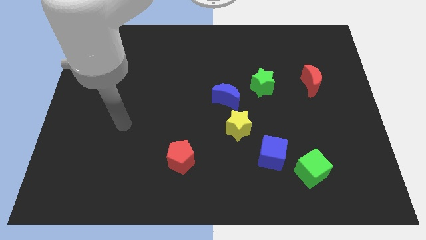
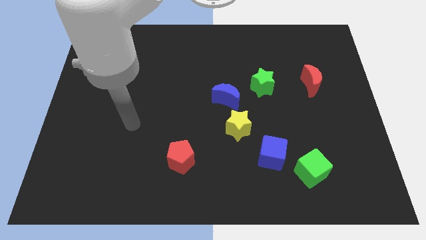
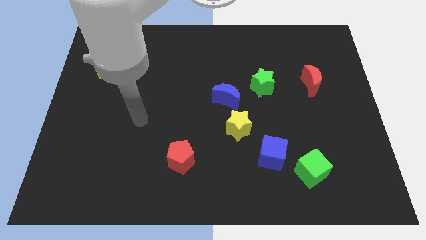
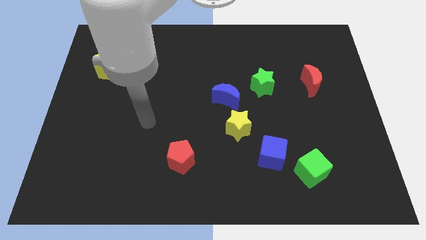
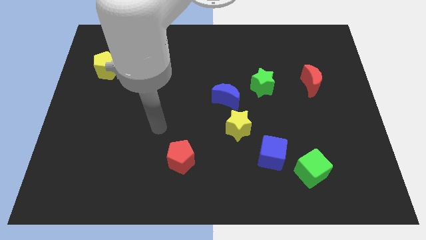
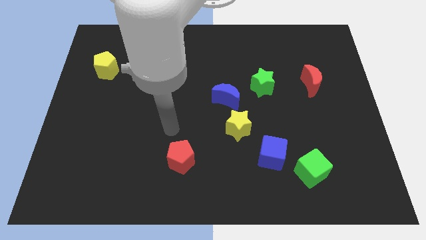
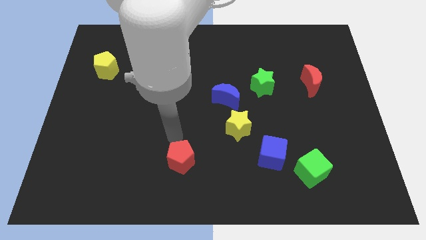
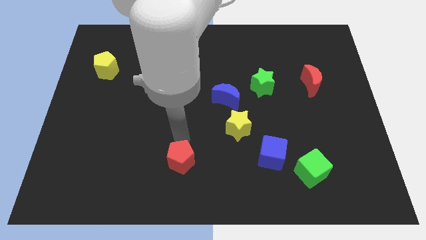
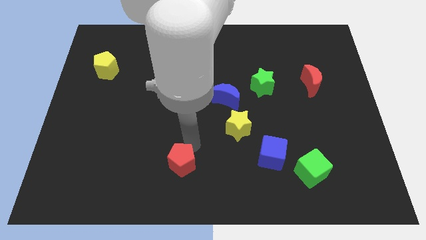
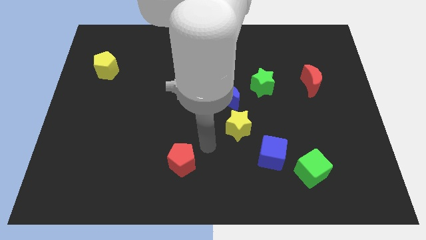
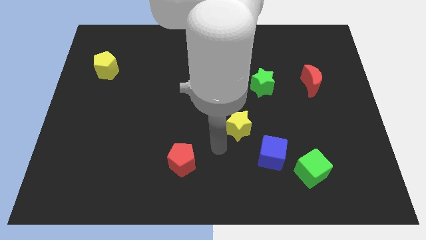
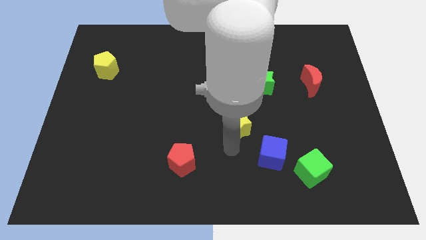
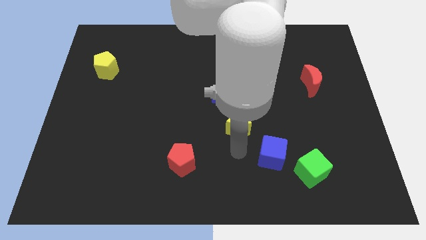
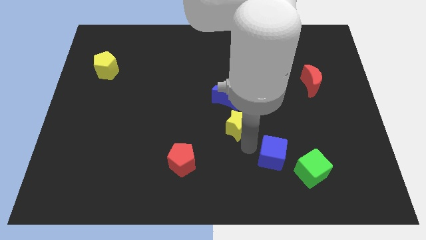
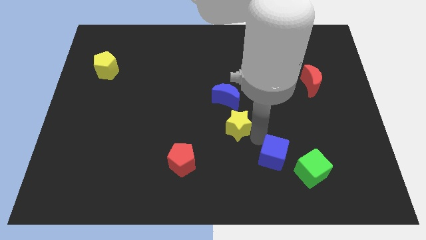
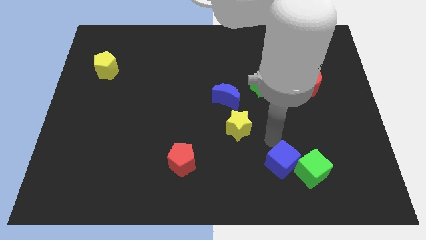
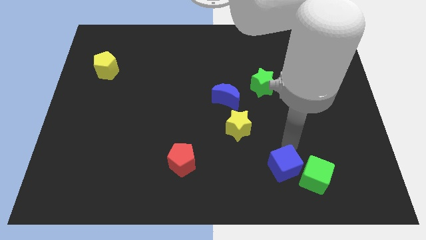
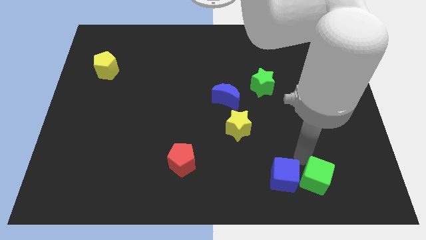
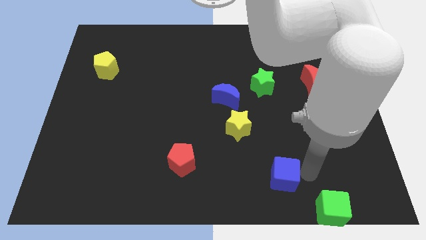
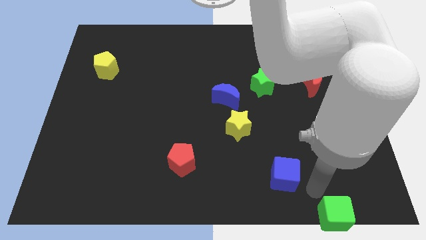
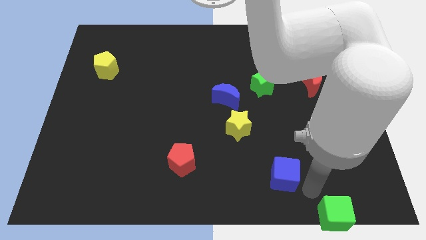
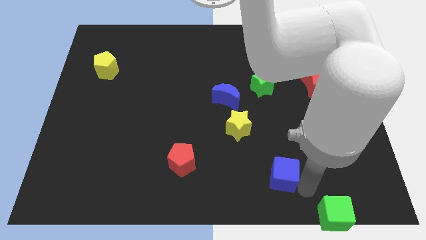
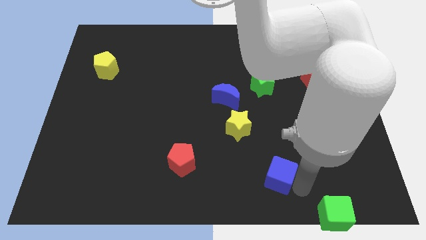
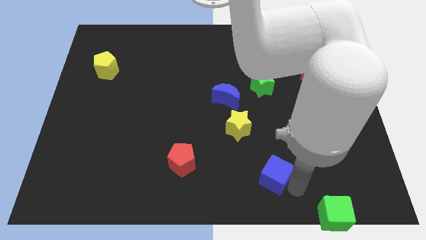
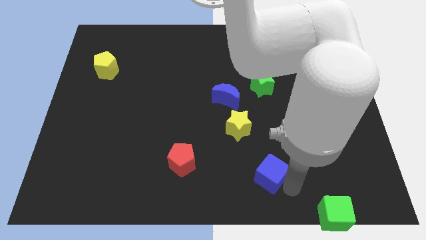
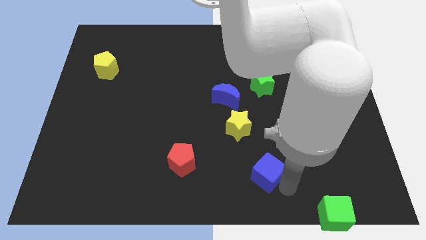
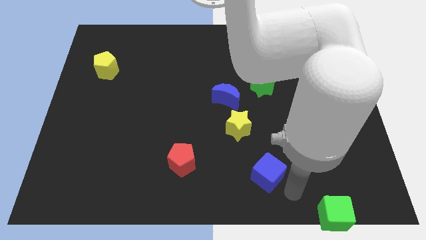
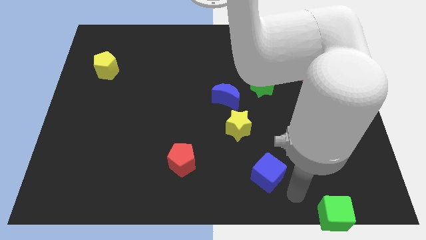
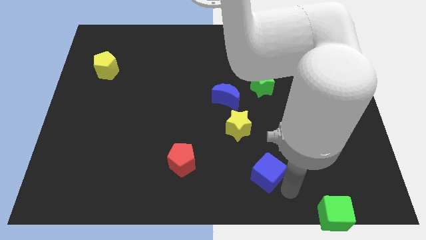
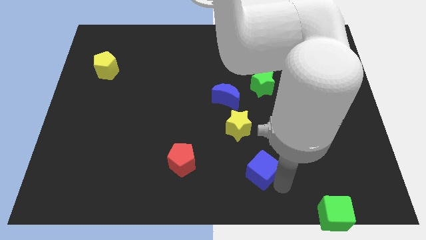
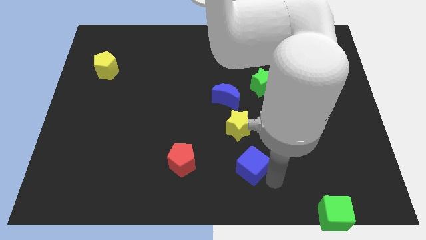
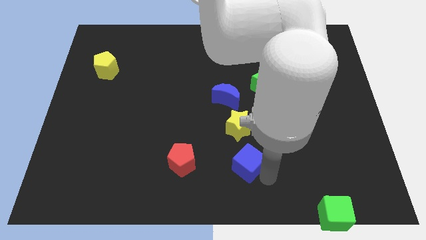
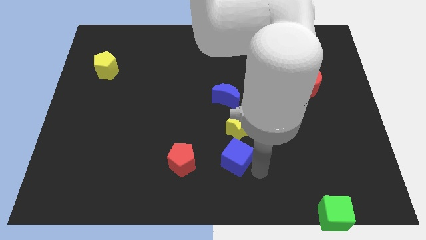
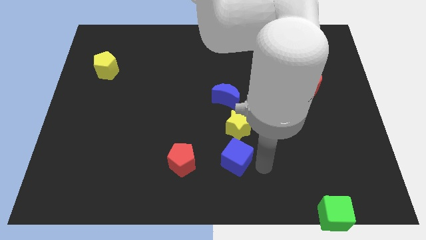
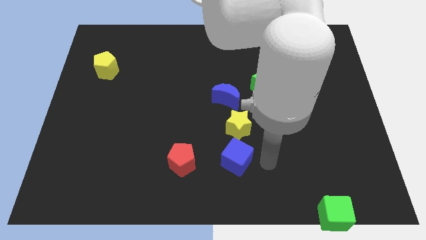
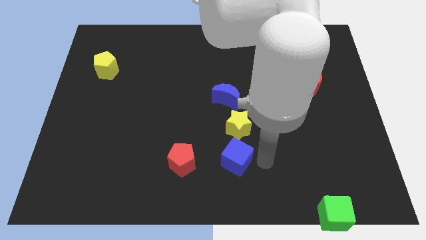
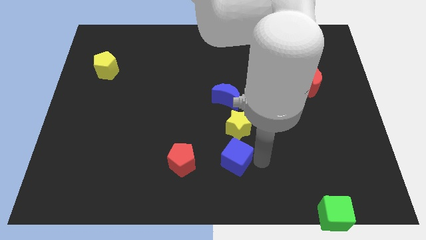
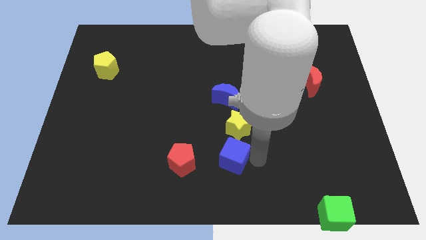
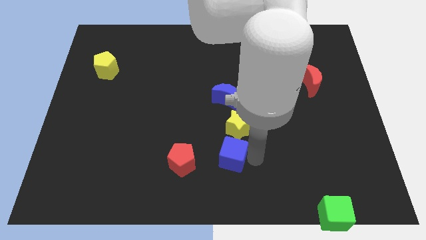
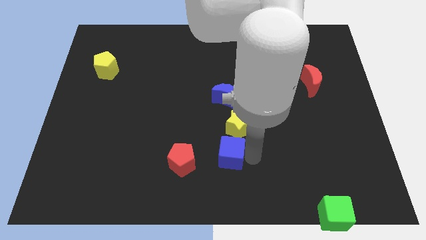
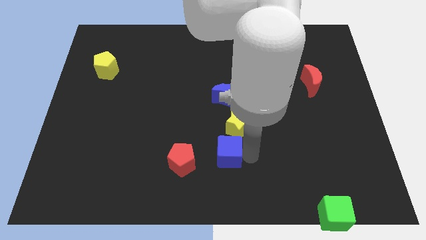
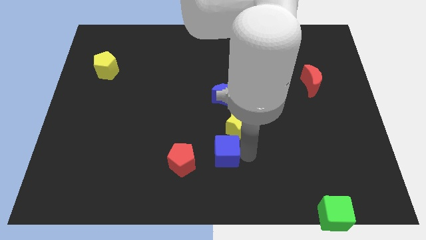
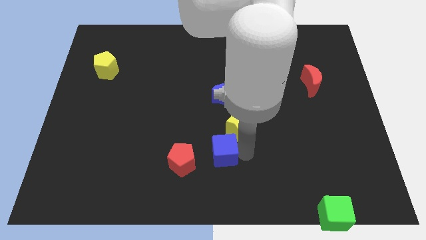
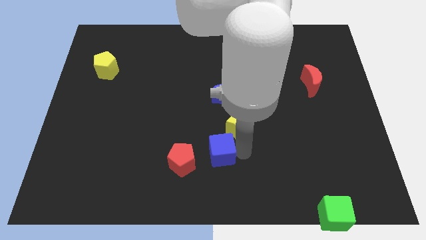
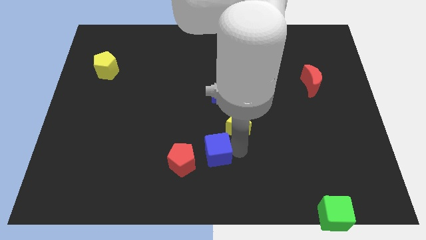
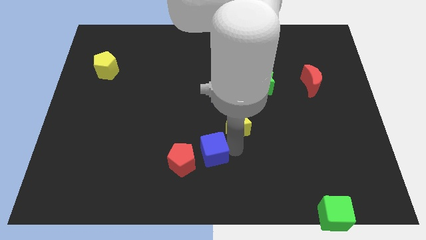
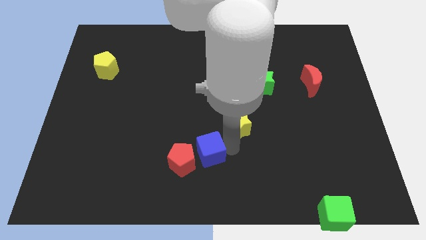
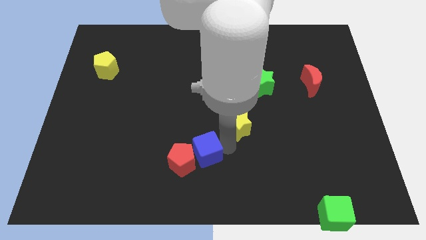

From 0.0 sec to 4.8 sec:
push the blue cube to the red pentagon

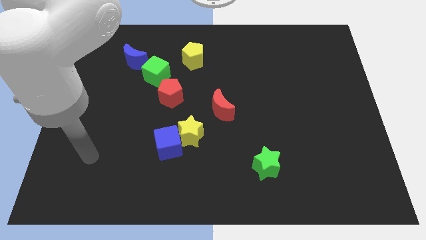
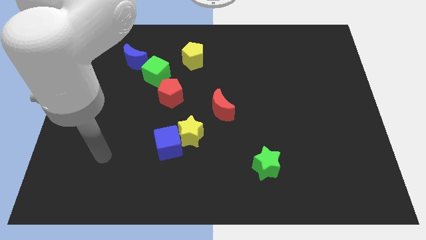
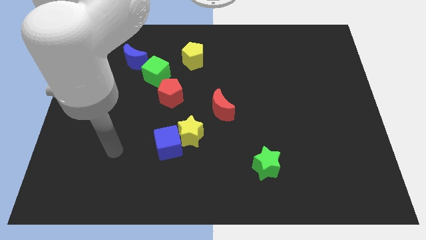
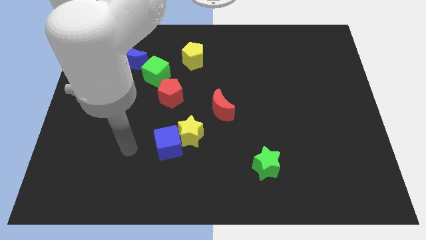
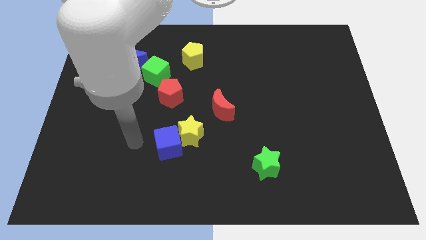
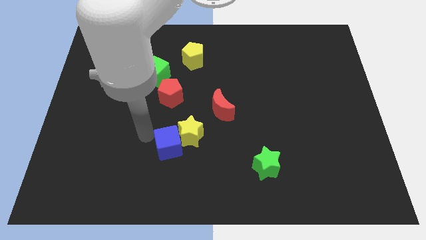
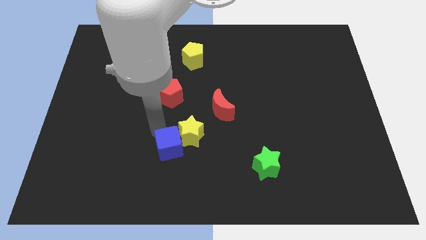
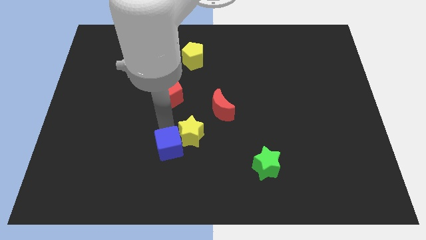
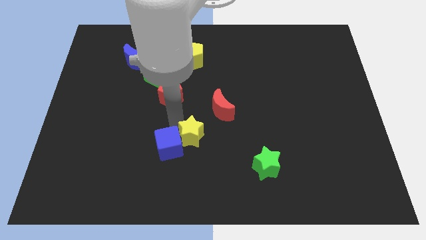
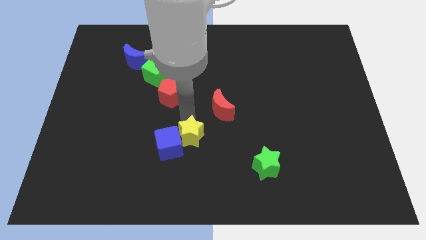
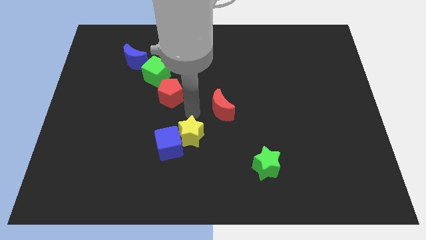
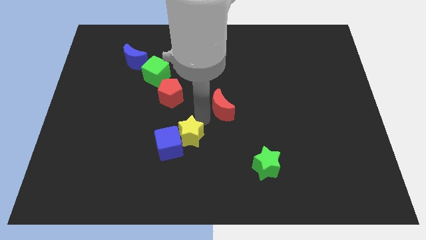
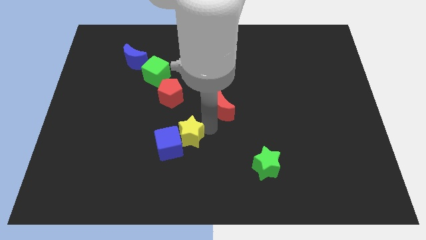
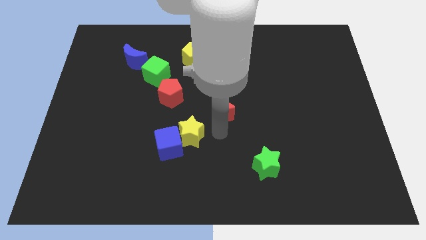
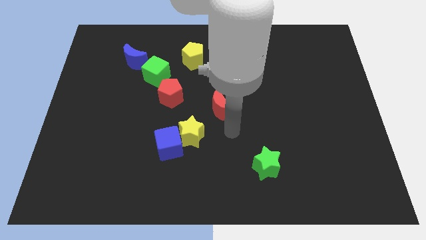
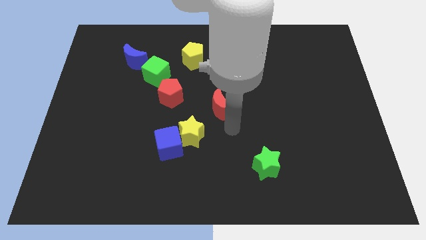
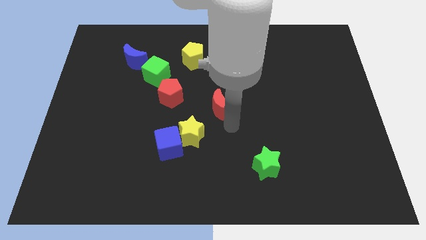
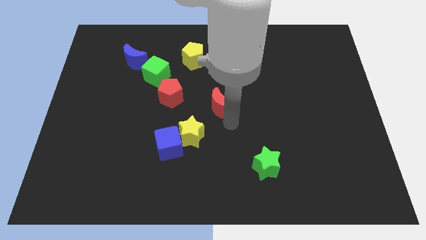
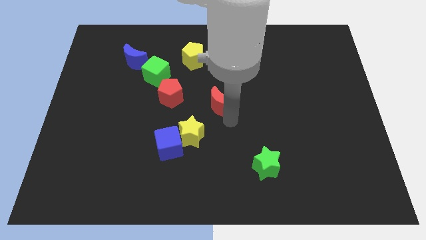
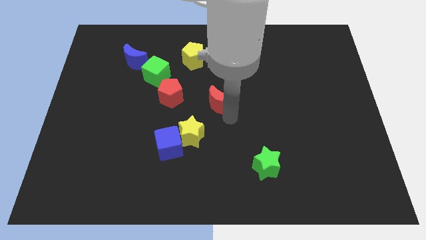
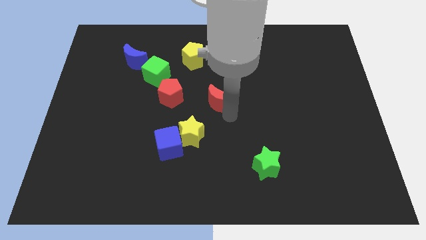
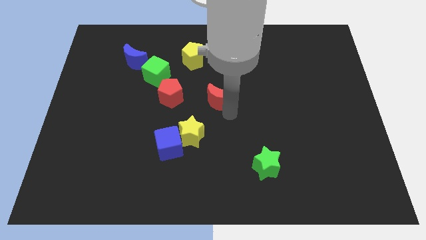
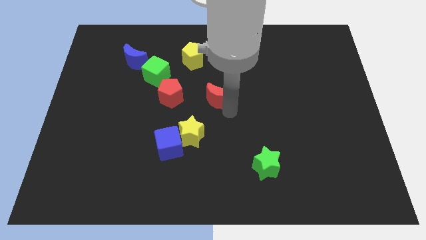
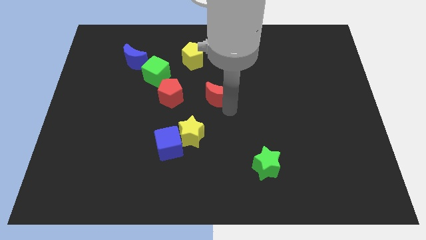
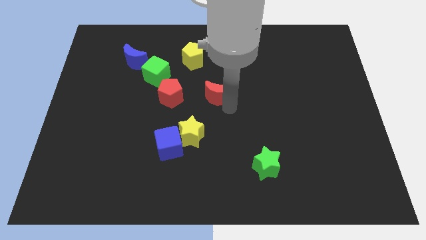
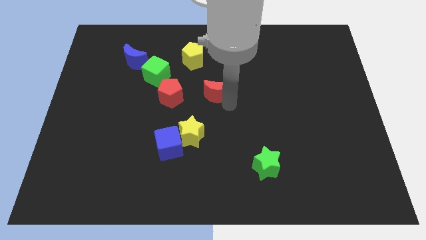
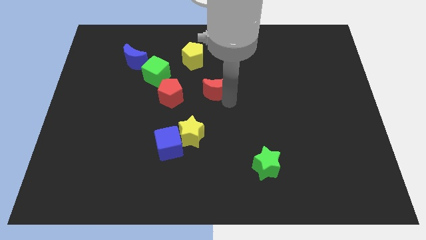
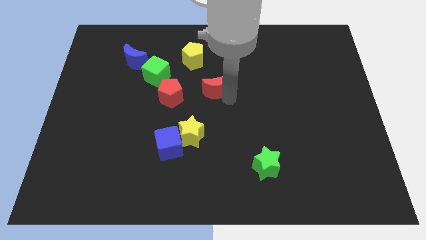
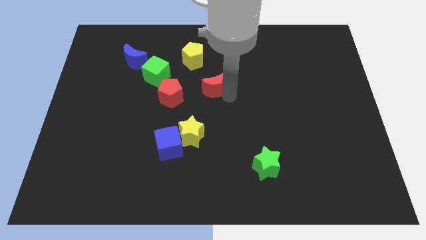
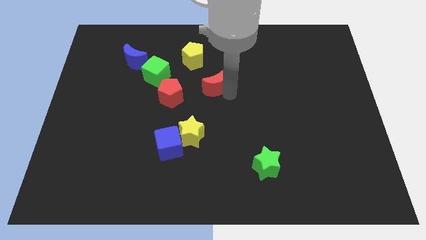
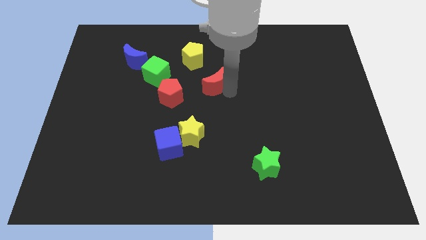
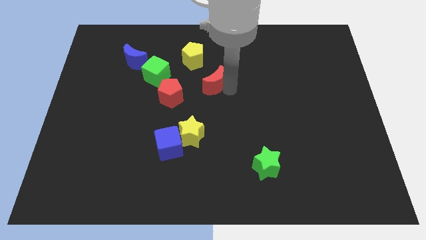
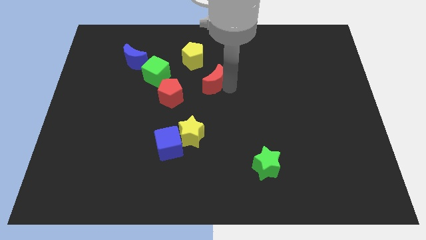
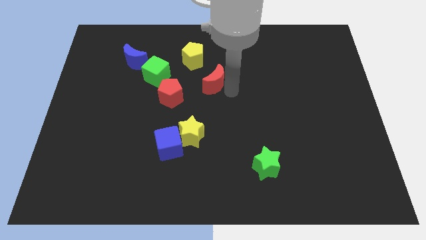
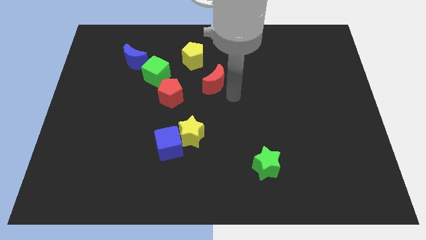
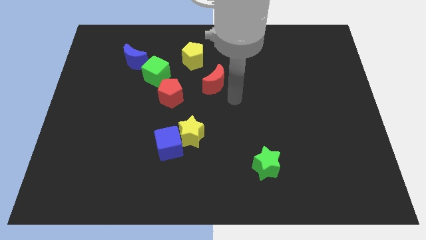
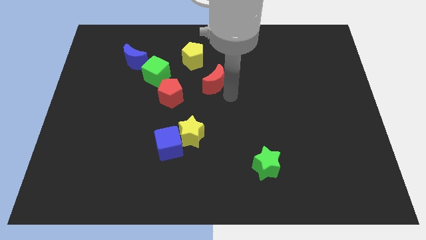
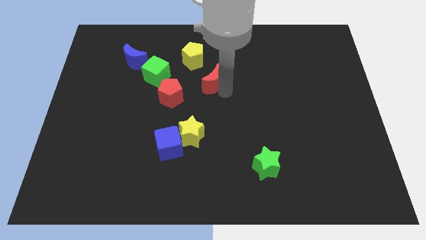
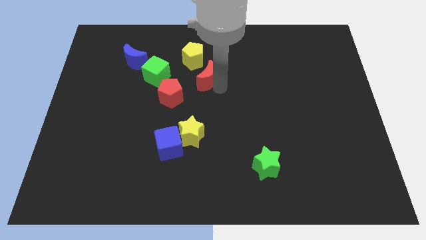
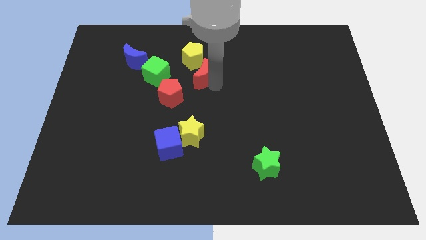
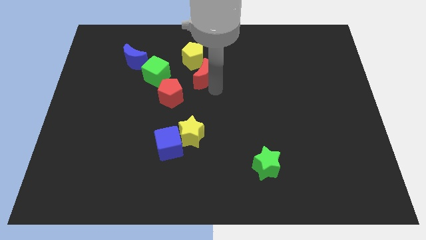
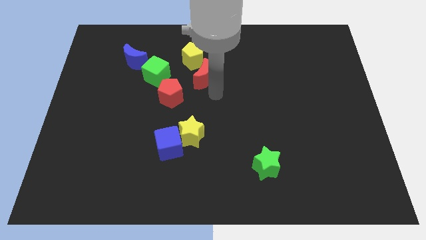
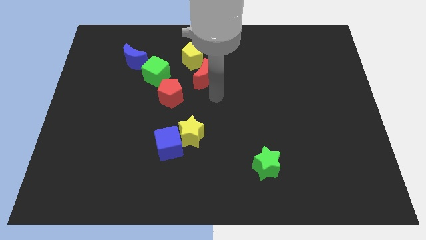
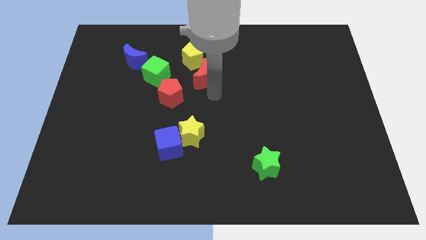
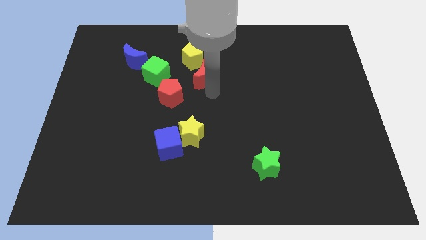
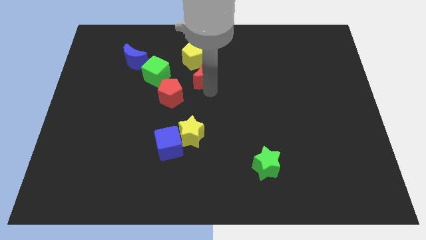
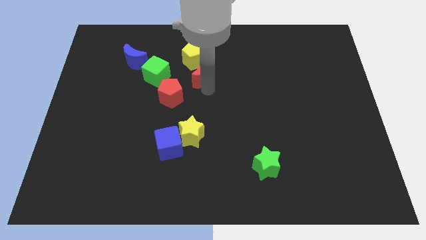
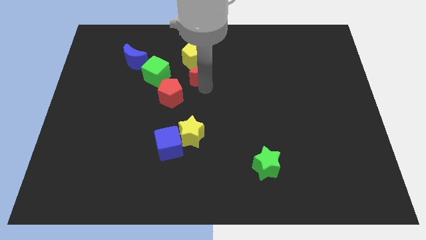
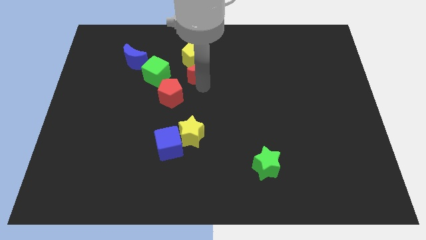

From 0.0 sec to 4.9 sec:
move the red moon next to the yellow pentagon
